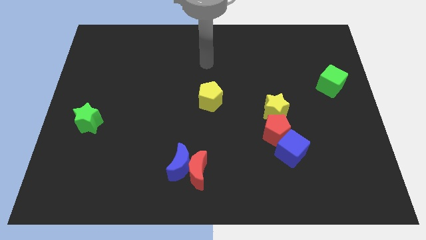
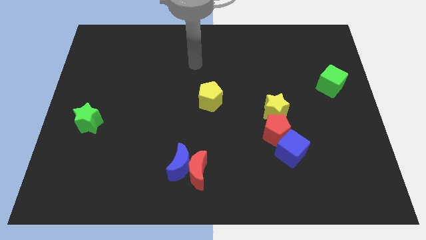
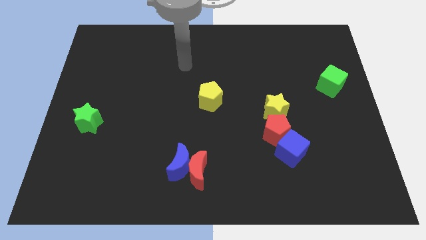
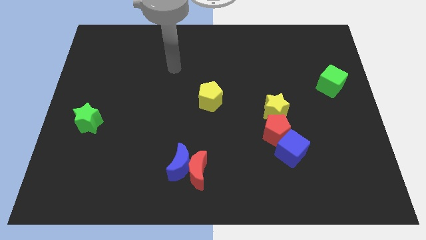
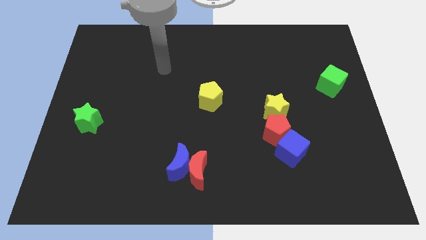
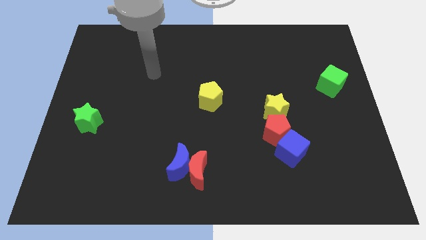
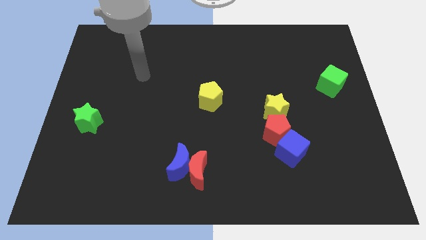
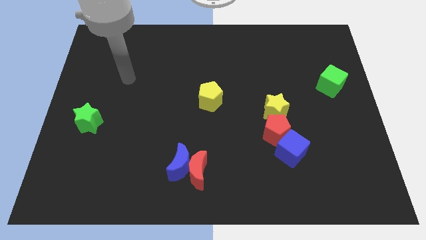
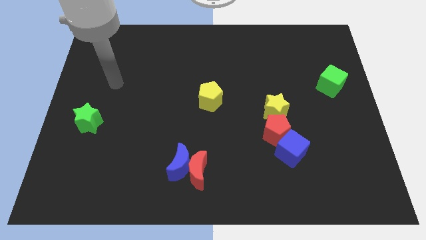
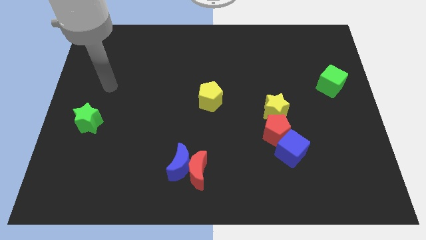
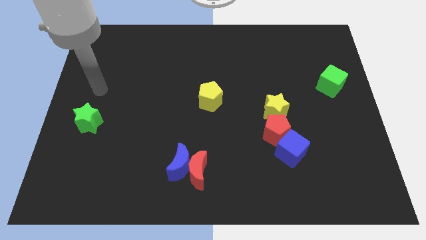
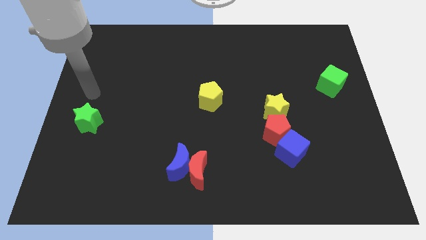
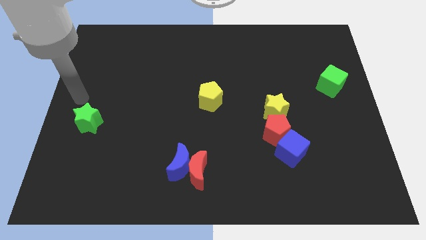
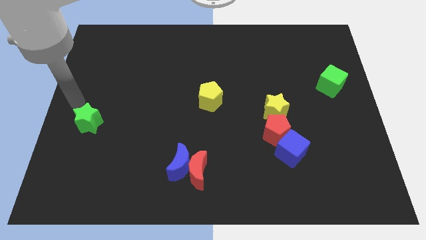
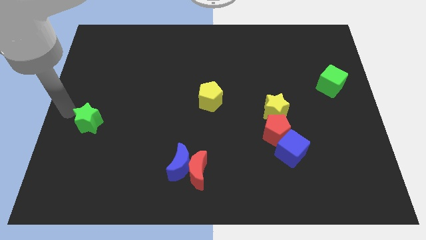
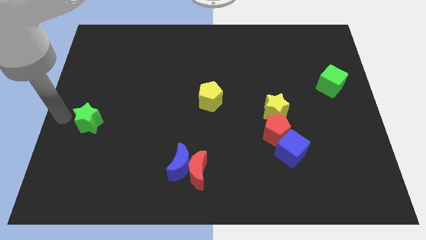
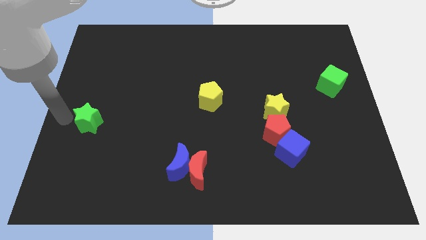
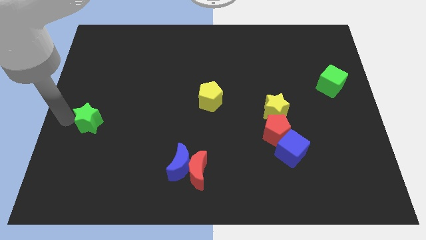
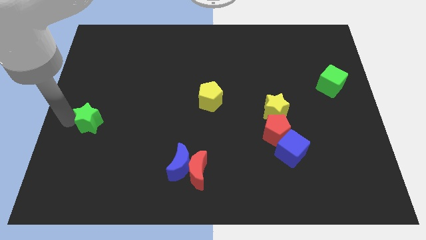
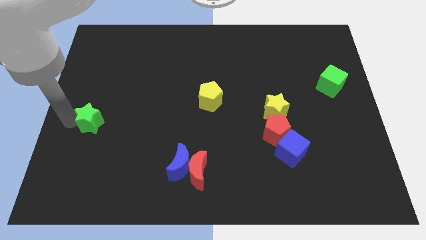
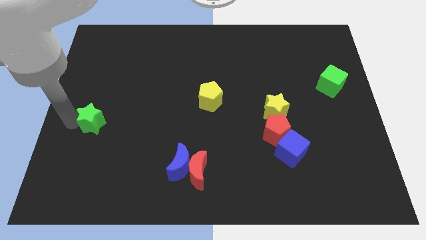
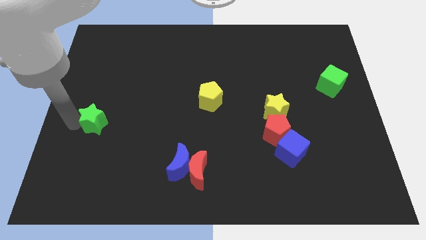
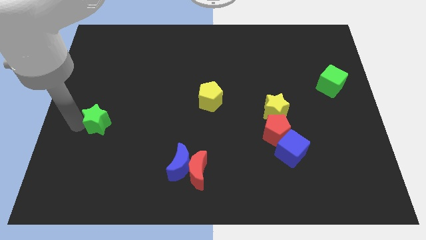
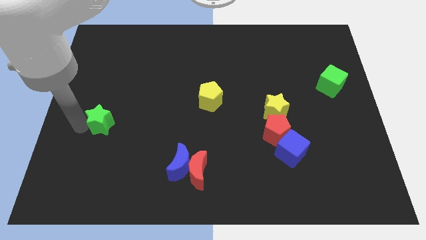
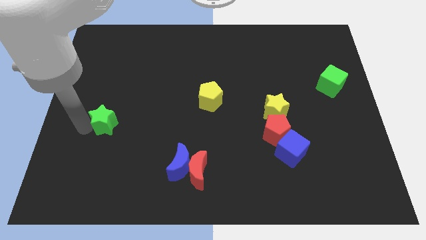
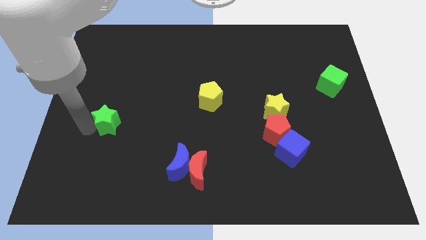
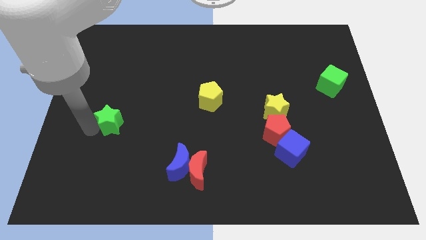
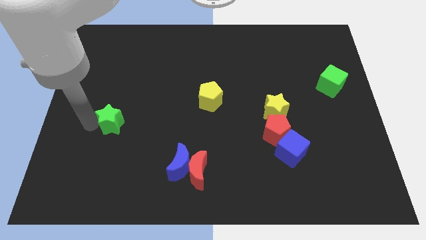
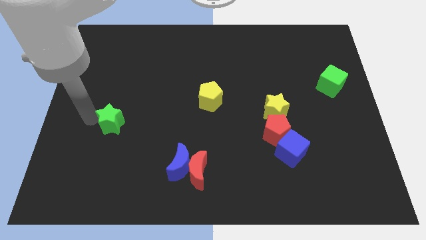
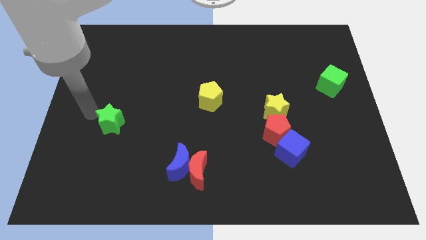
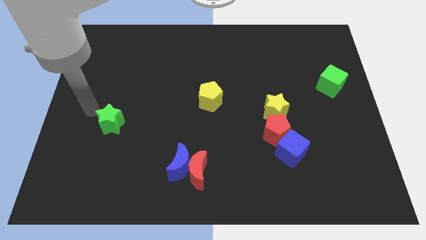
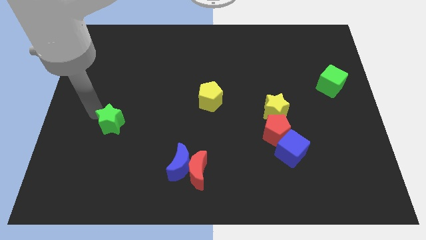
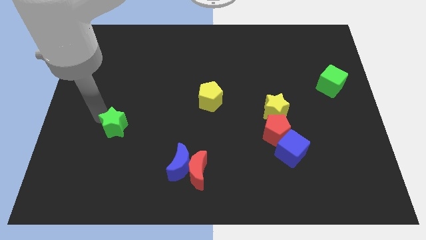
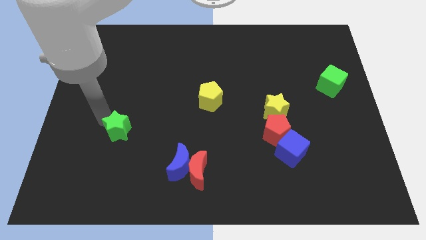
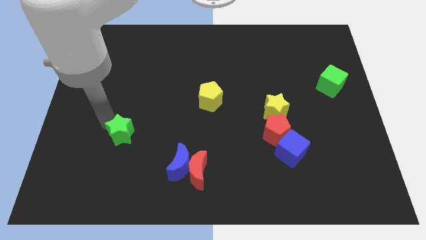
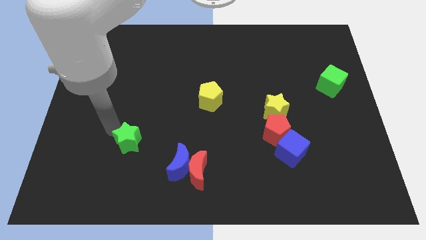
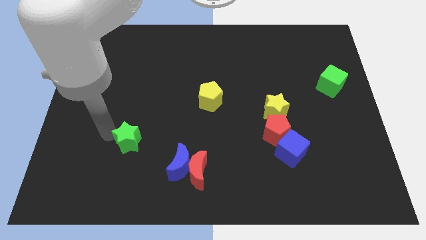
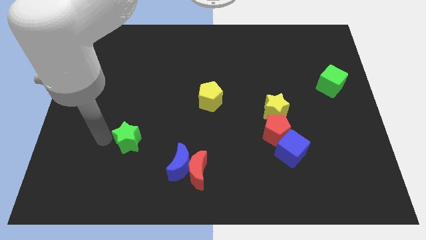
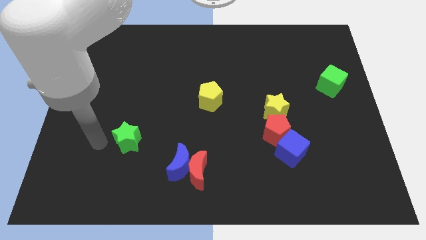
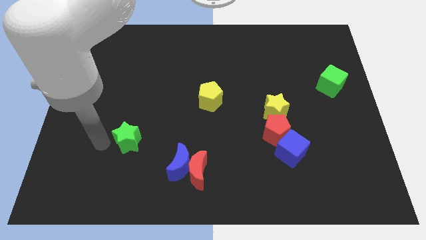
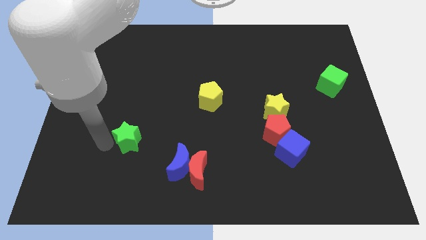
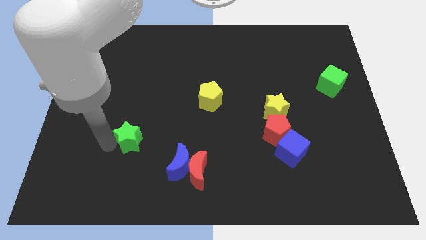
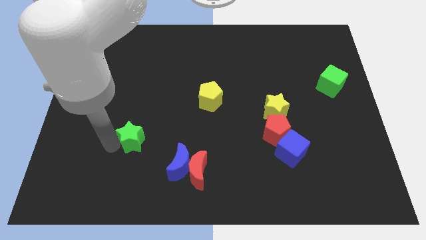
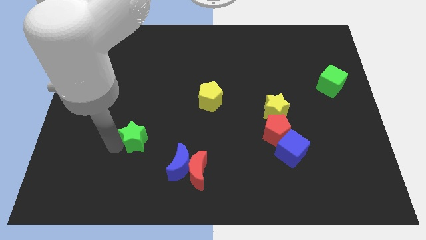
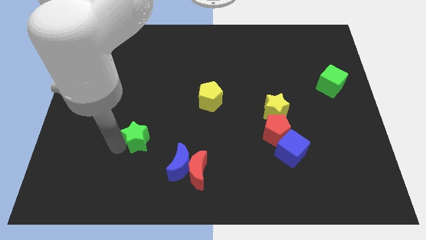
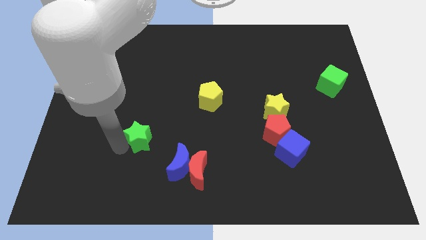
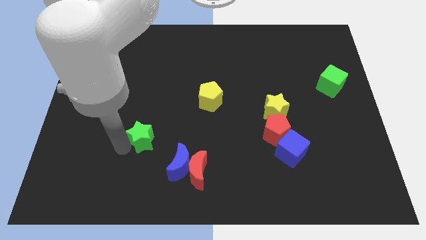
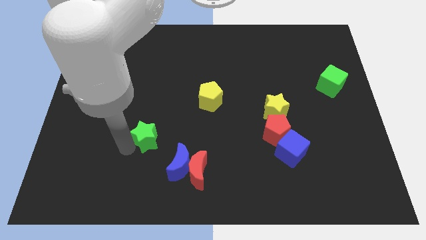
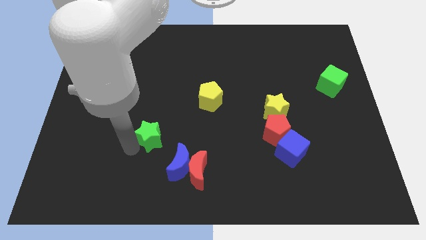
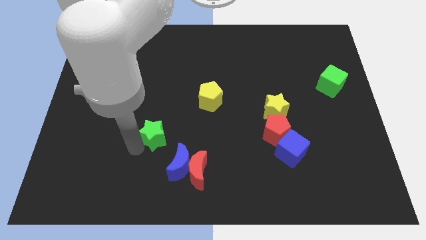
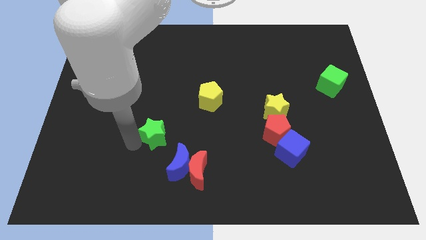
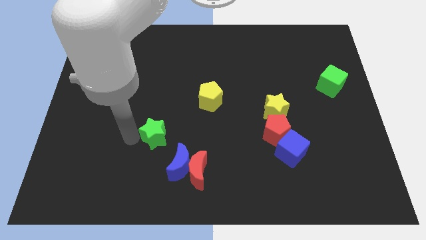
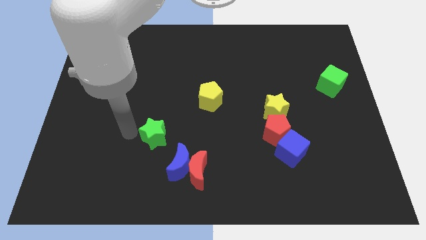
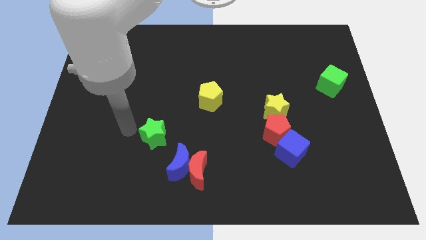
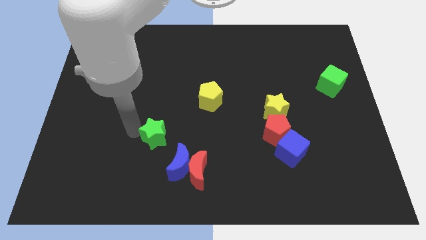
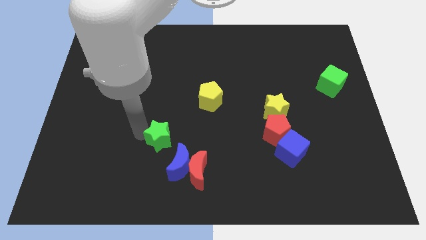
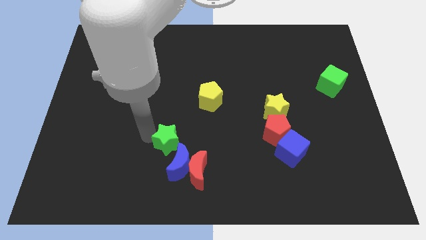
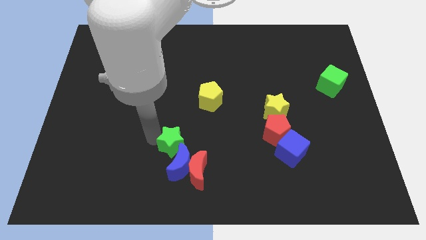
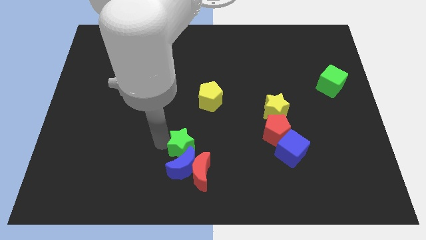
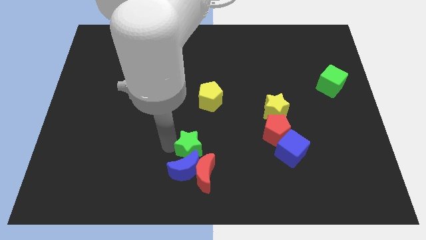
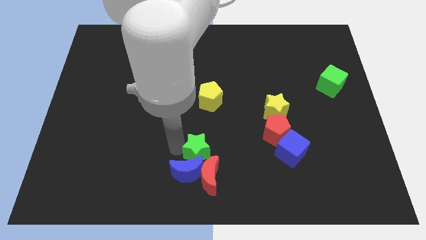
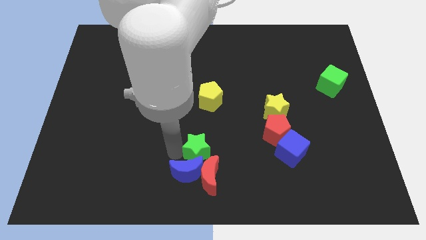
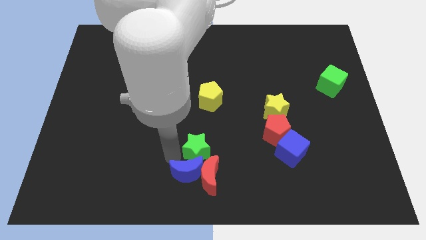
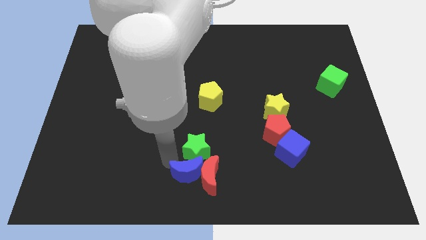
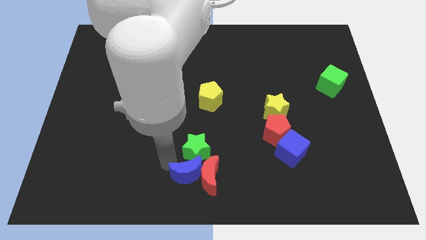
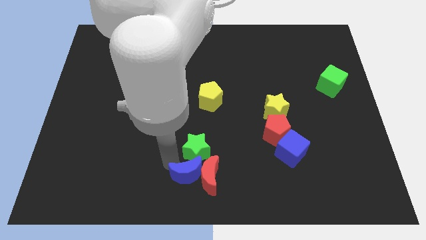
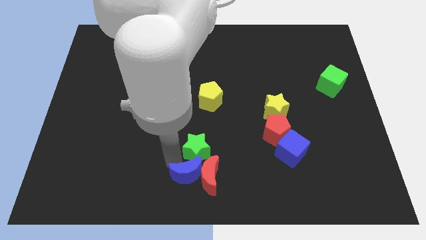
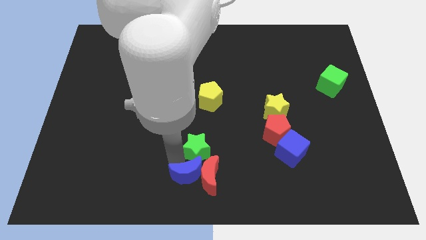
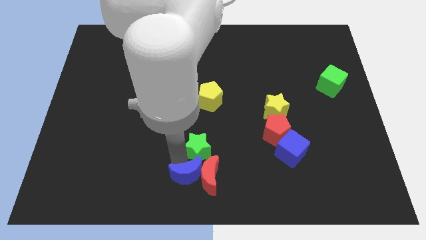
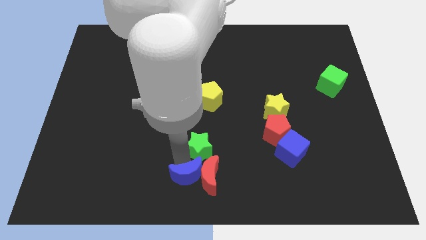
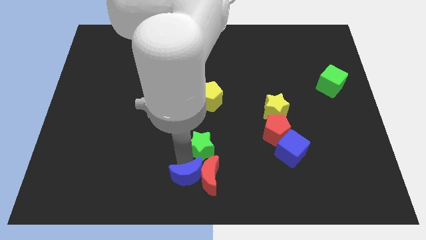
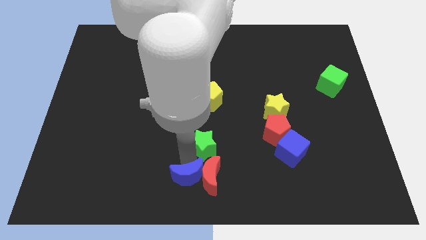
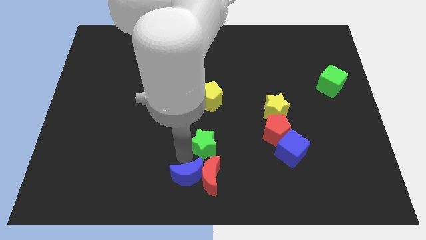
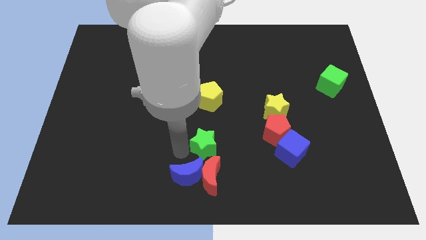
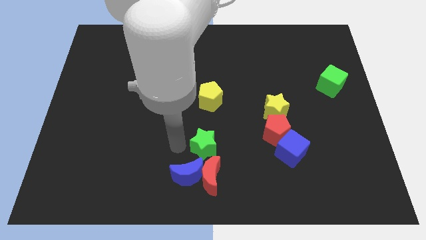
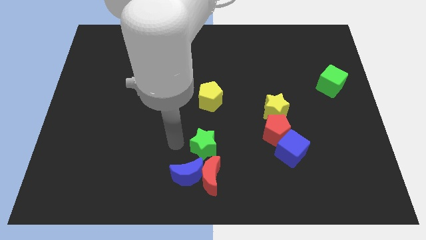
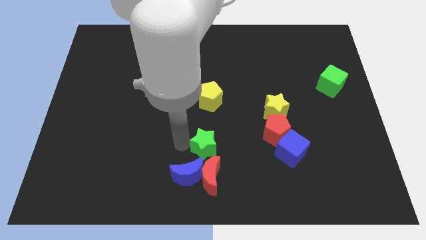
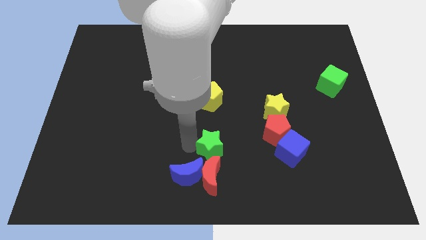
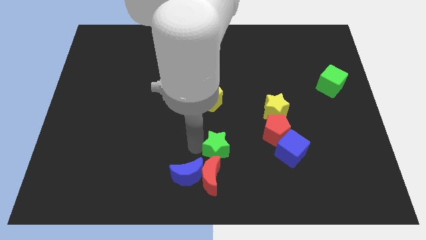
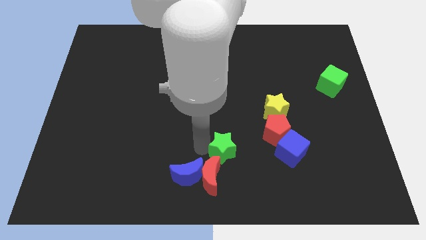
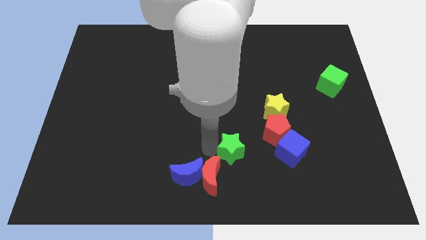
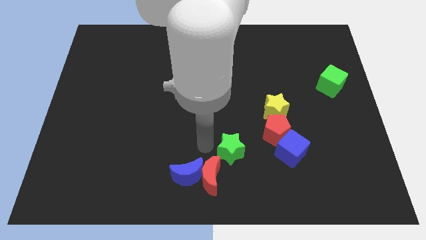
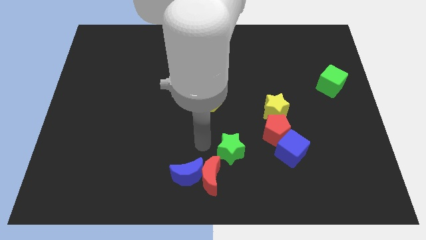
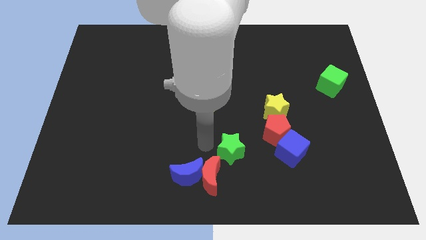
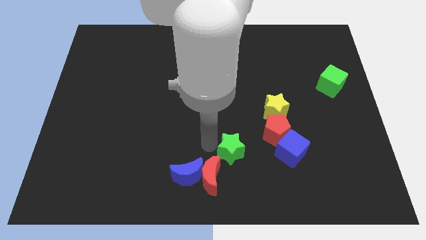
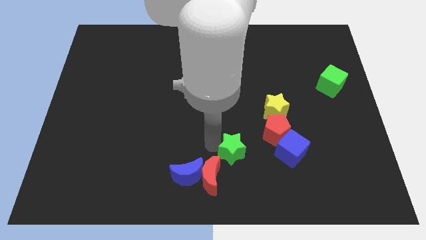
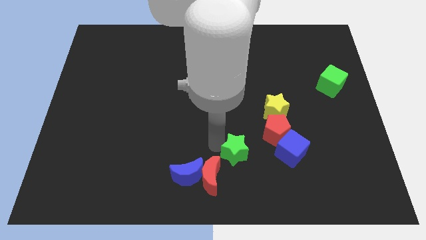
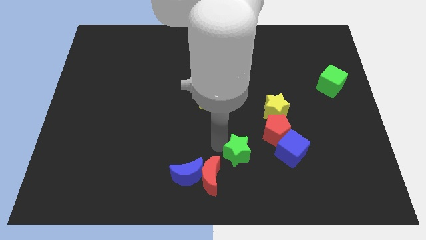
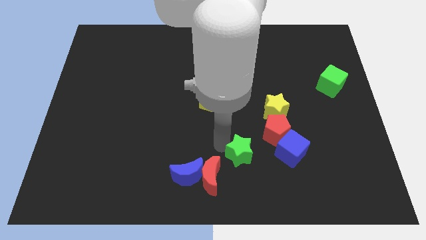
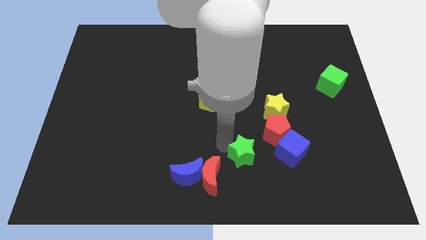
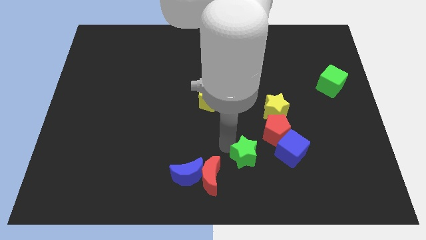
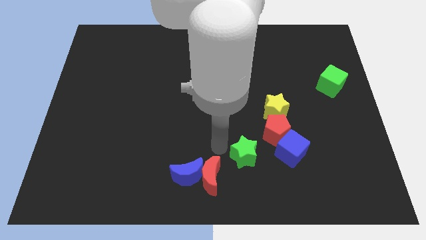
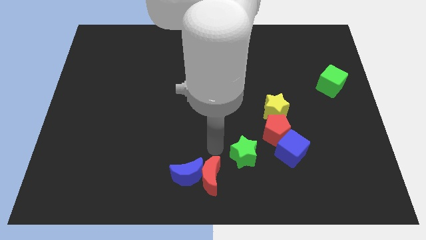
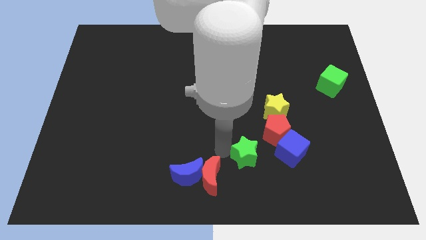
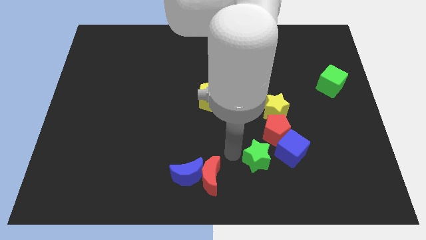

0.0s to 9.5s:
push the green star to the bottom of the yellow star
